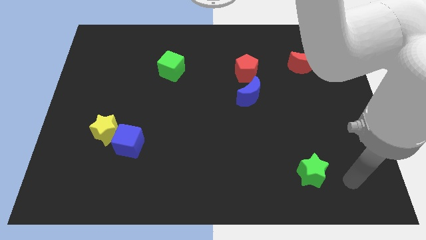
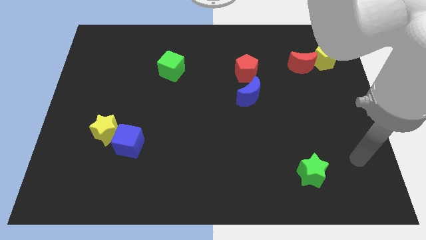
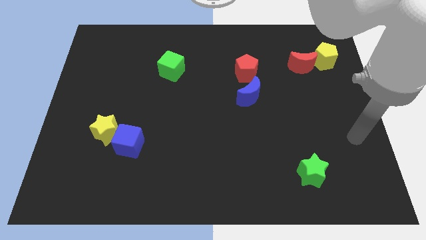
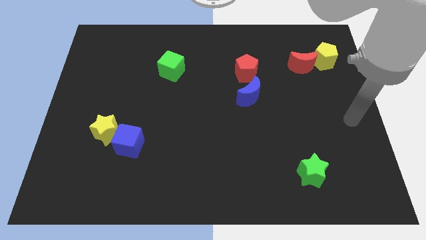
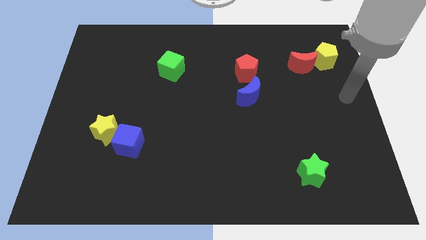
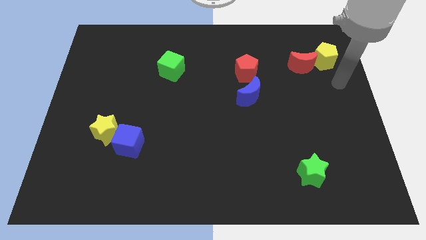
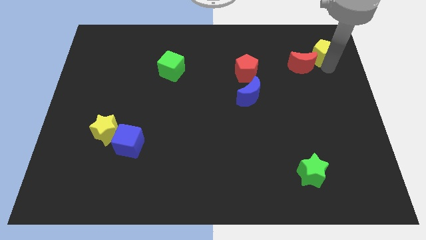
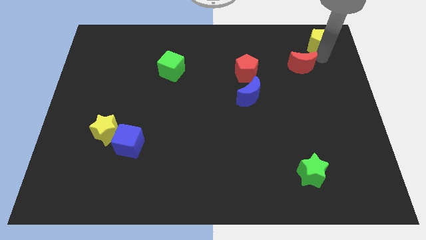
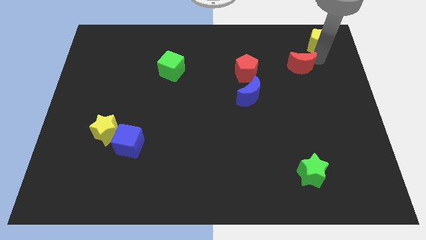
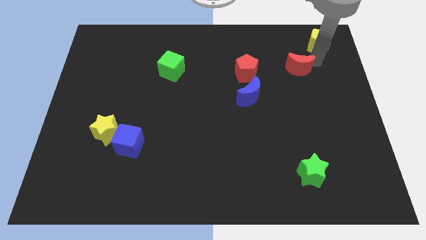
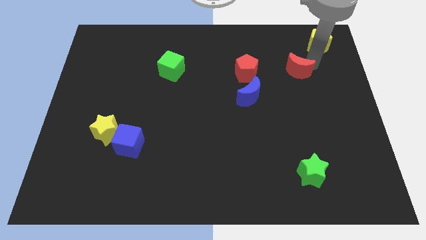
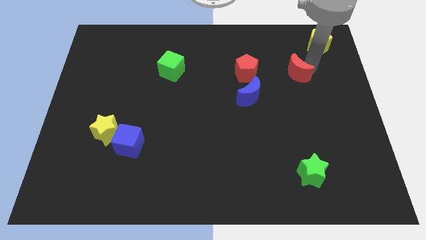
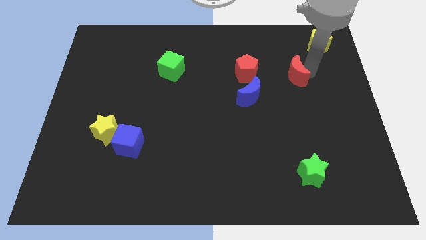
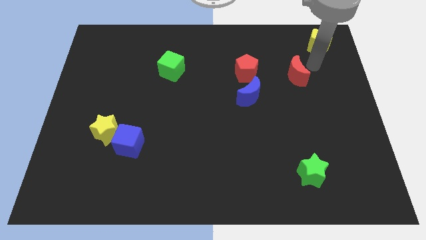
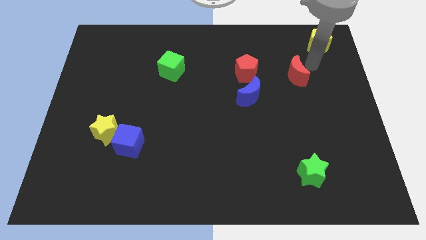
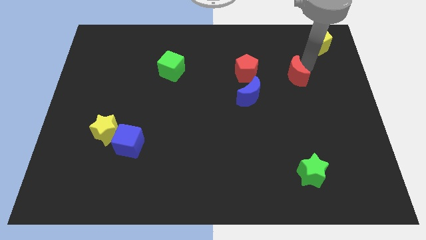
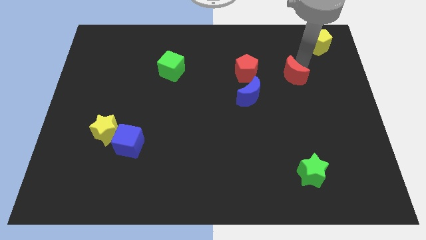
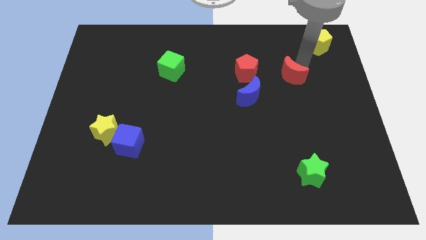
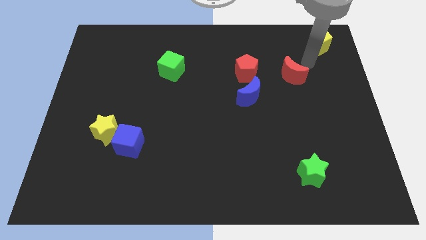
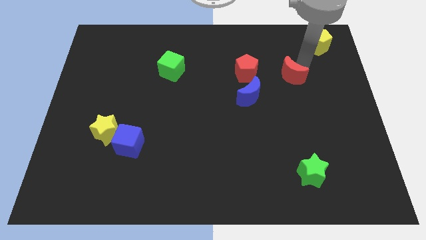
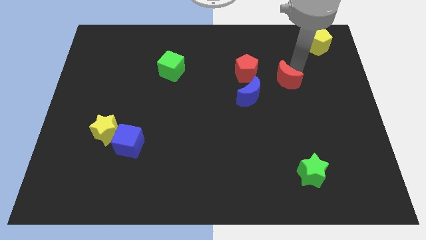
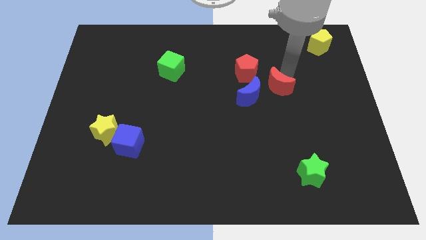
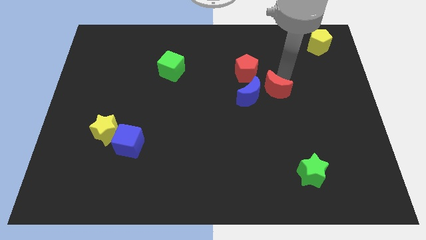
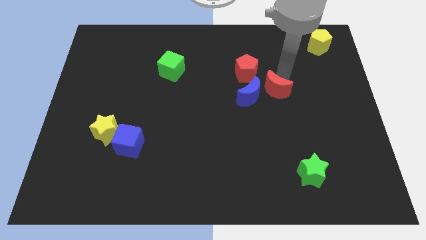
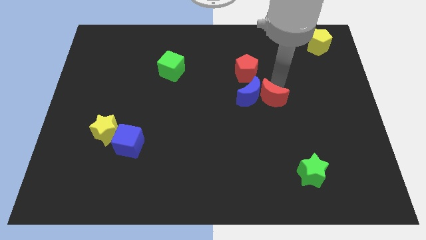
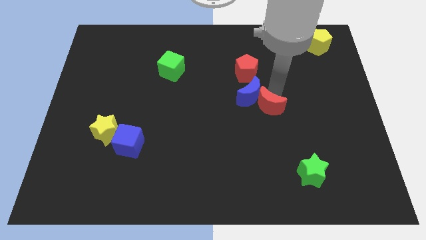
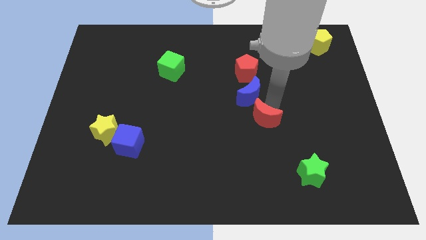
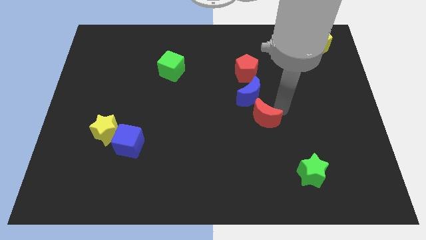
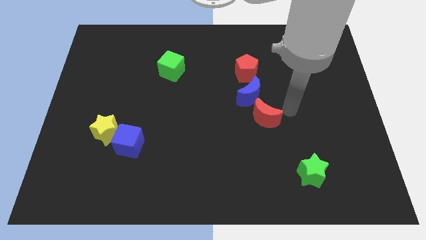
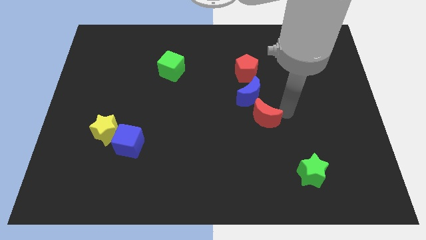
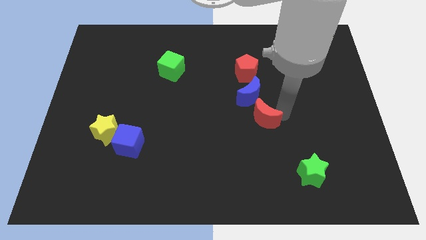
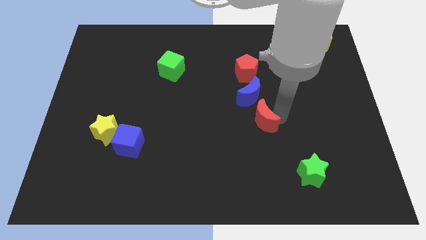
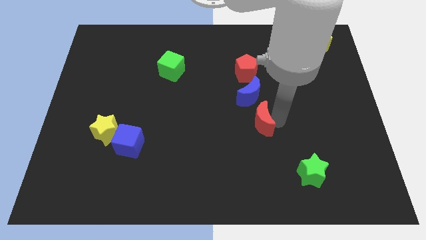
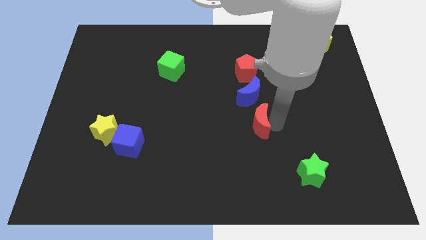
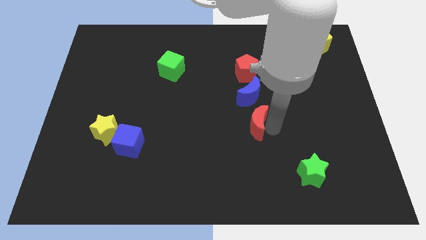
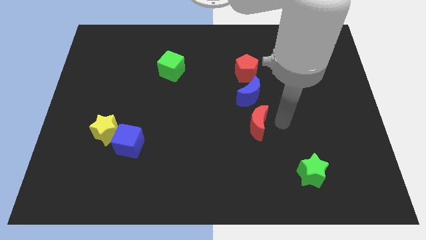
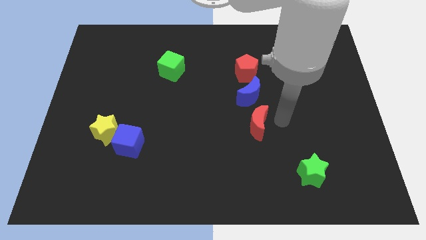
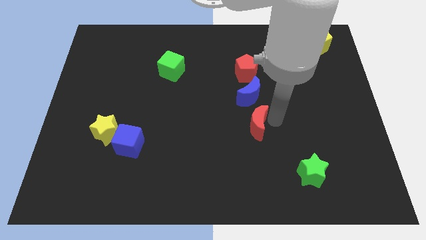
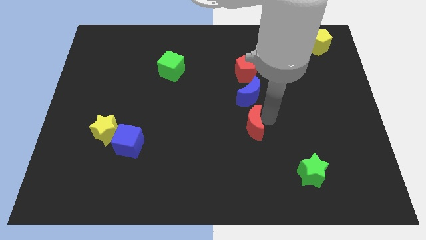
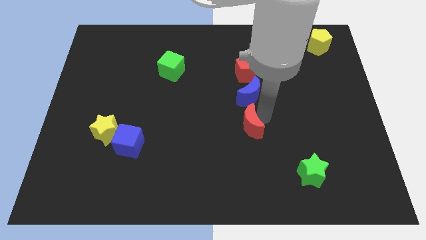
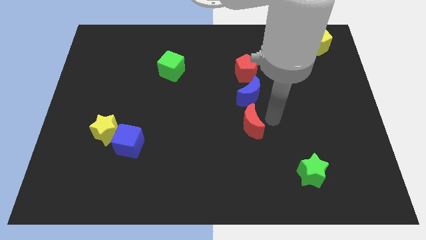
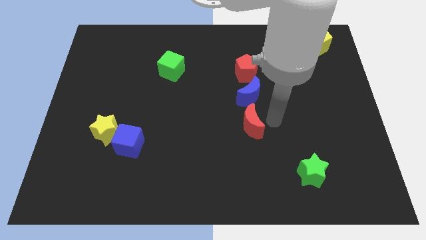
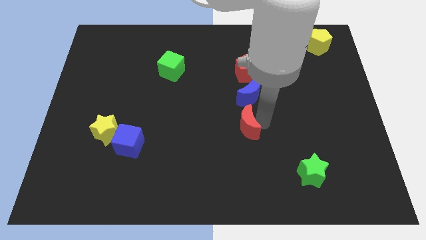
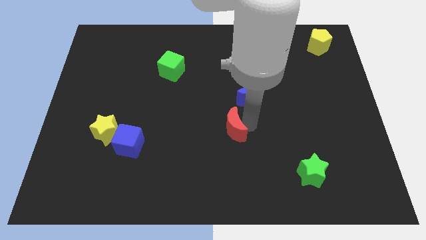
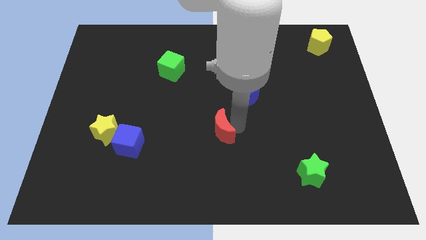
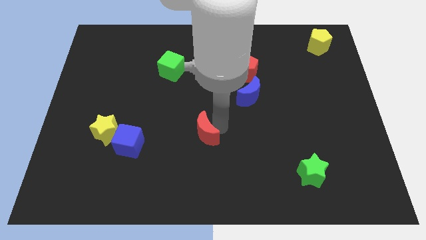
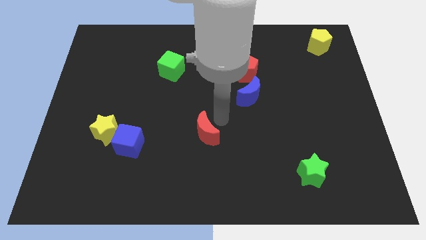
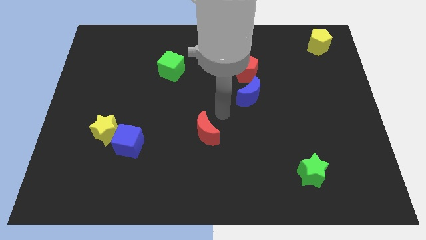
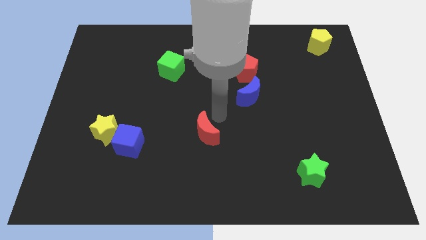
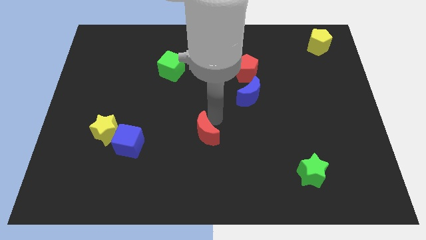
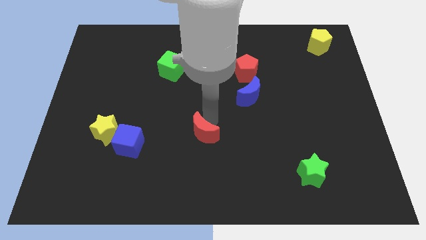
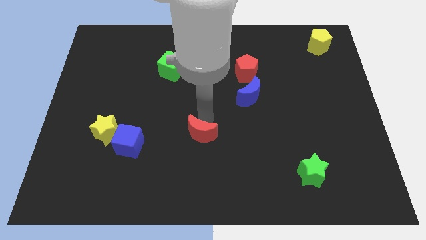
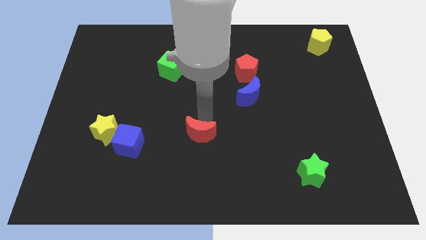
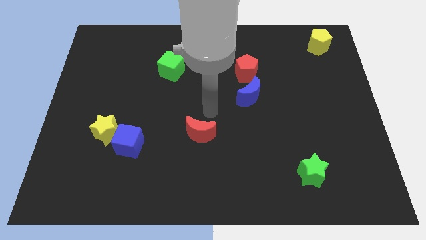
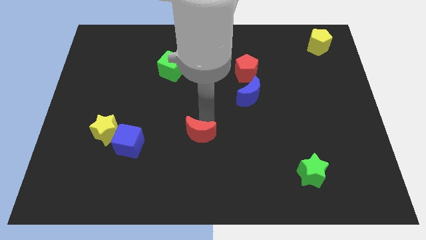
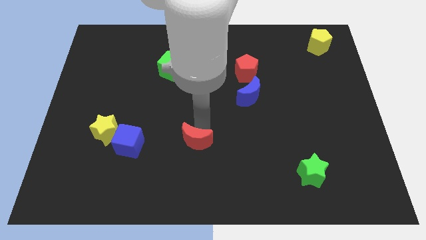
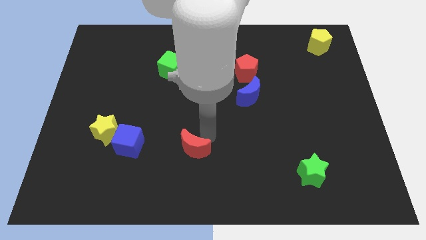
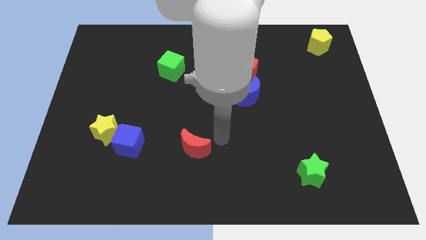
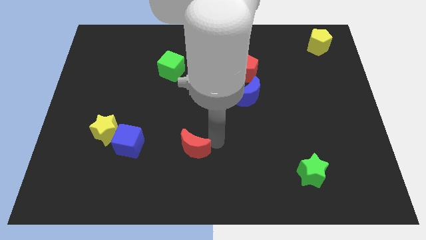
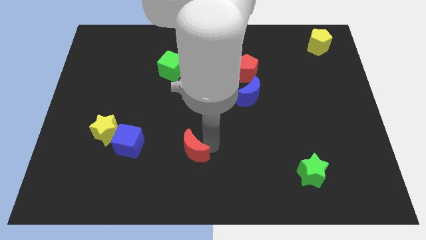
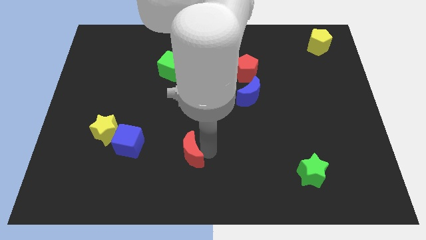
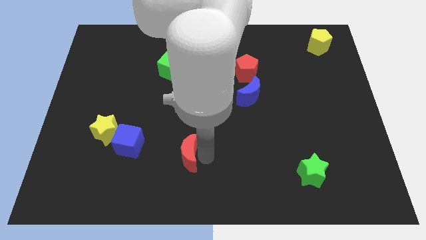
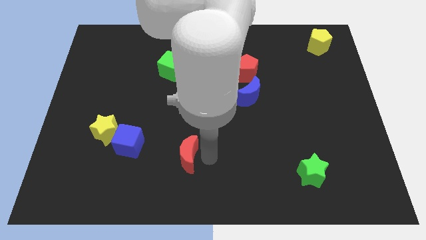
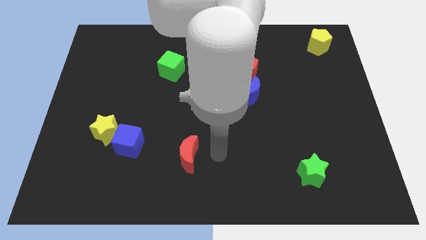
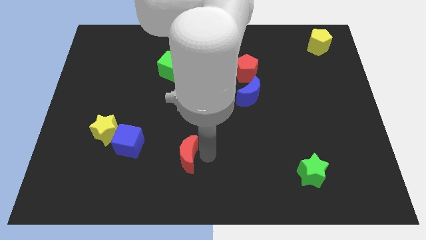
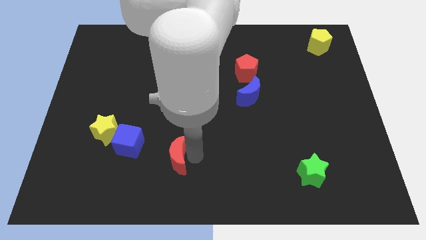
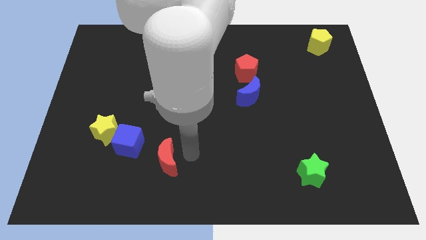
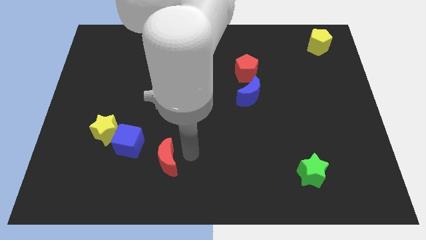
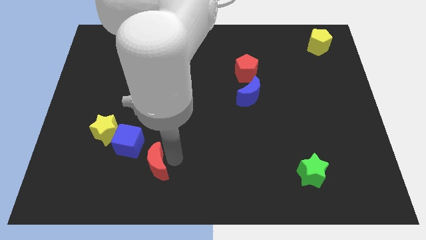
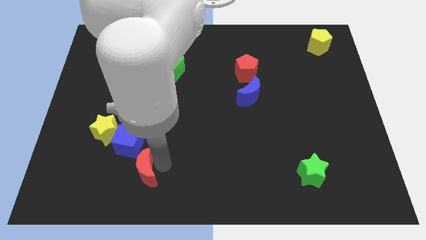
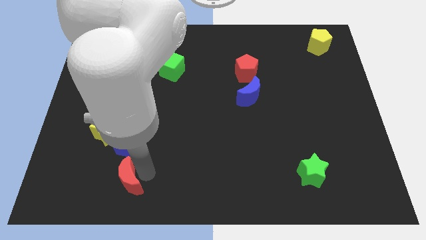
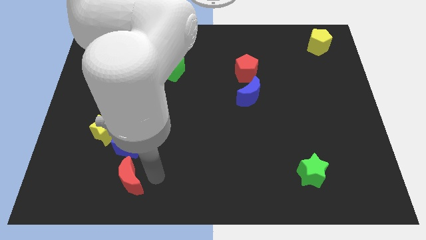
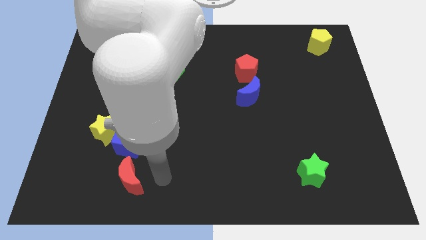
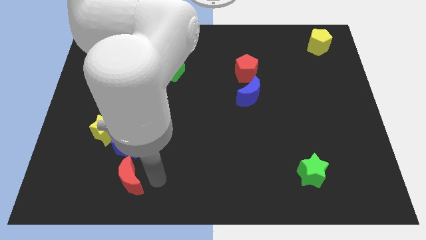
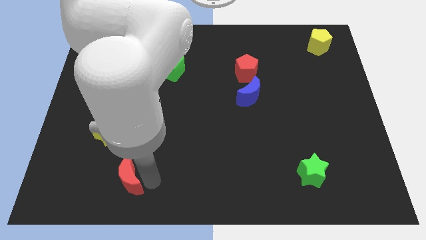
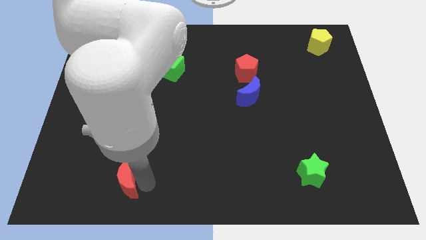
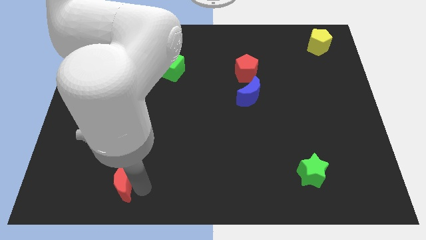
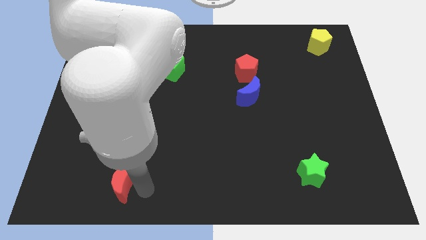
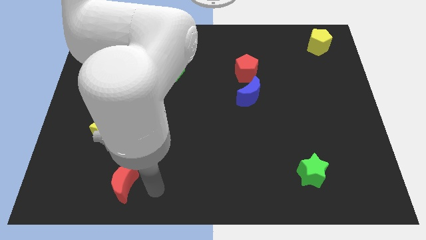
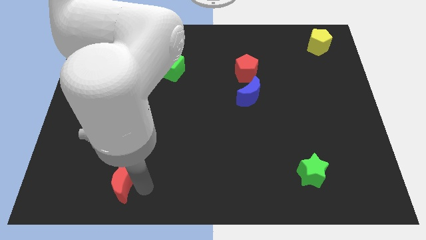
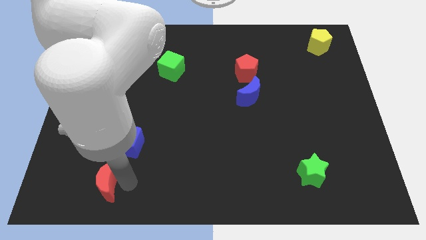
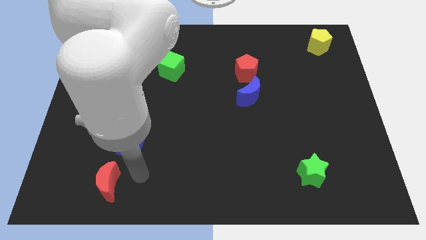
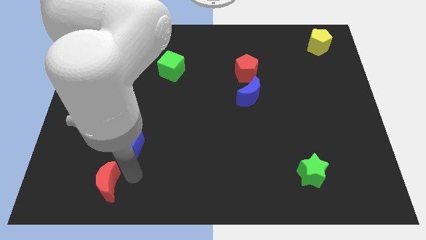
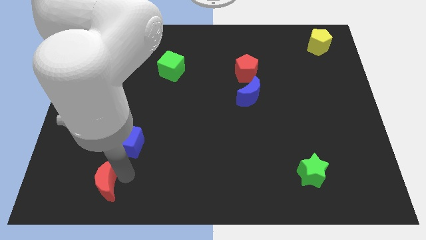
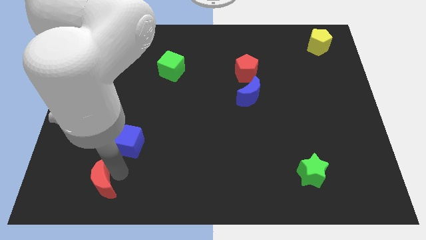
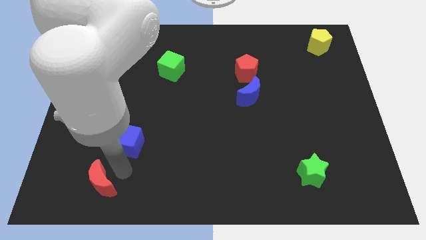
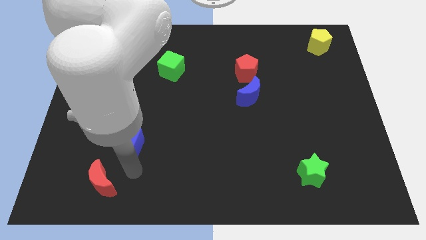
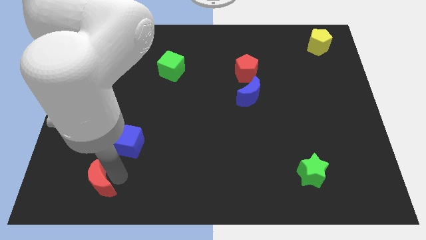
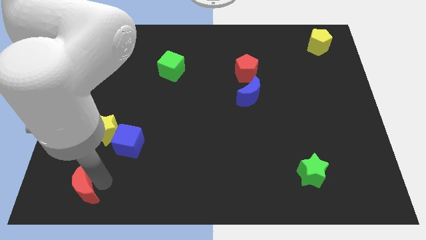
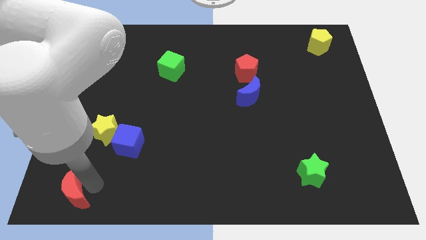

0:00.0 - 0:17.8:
put the red moon to the bottom left
